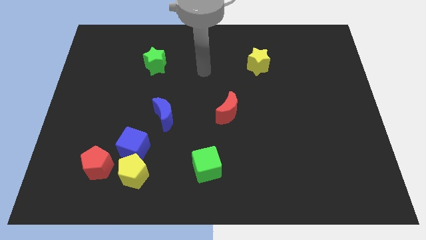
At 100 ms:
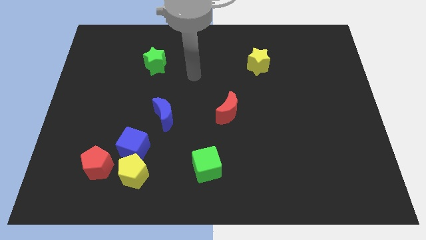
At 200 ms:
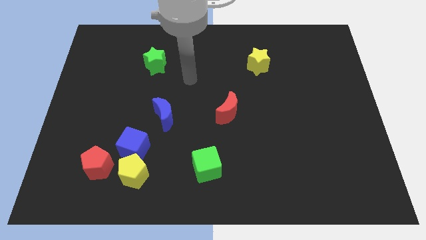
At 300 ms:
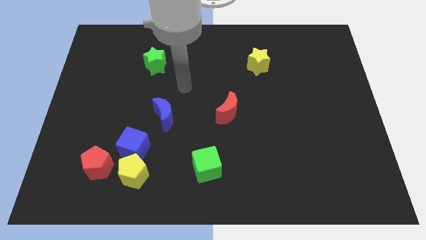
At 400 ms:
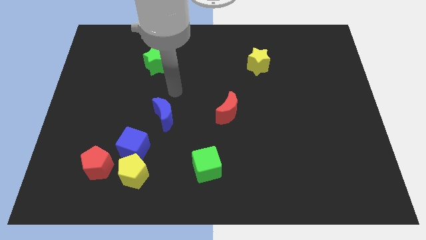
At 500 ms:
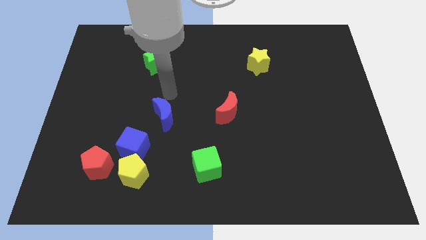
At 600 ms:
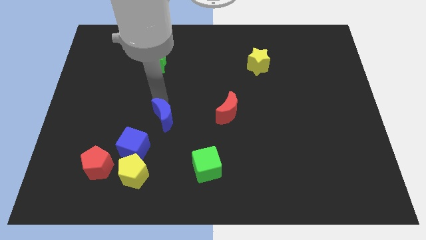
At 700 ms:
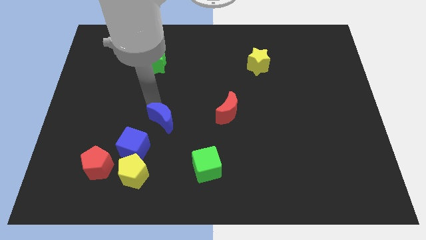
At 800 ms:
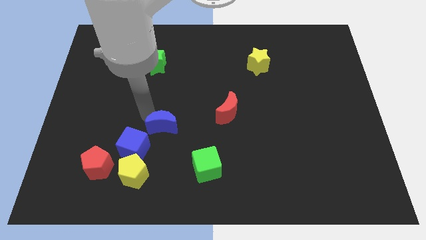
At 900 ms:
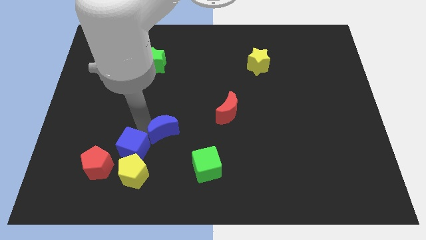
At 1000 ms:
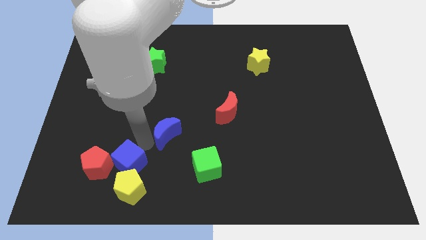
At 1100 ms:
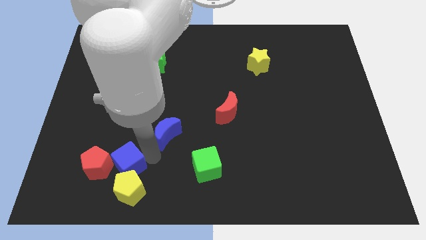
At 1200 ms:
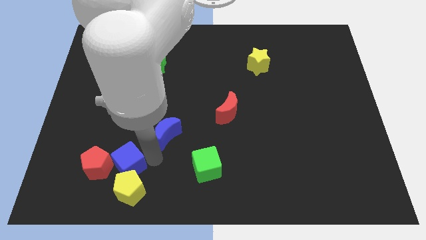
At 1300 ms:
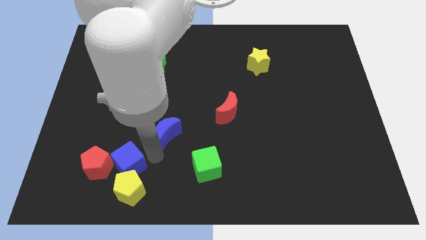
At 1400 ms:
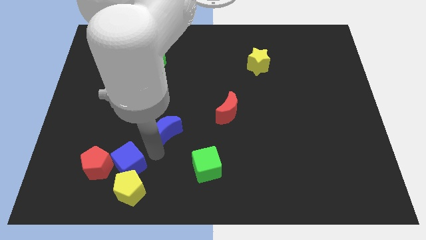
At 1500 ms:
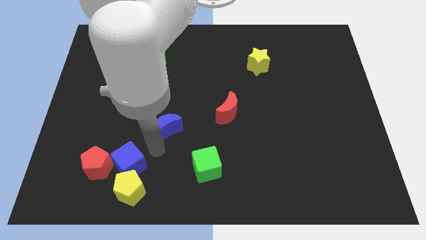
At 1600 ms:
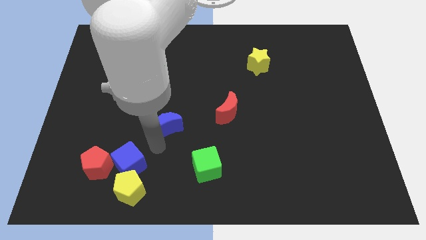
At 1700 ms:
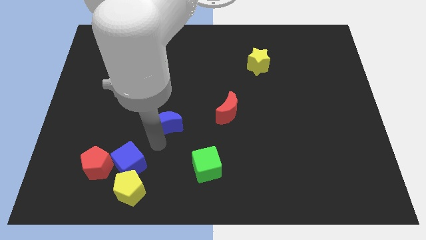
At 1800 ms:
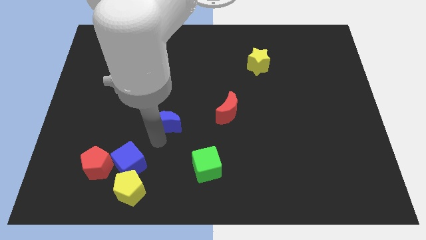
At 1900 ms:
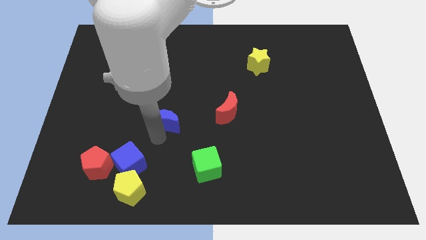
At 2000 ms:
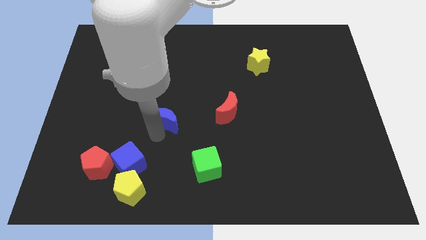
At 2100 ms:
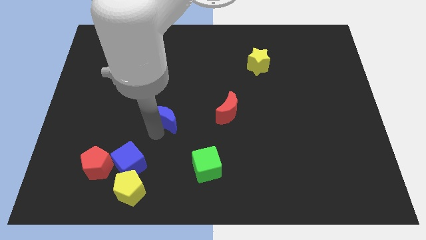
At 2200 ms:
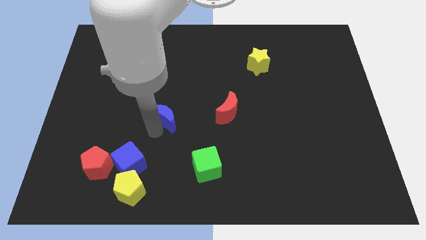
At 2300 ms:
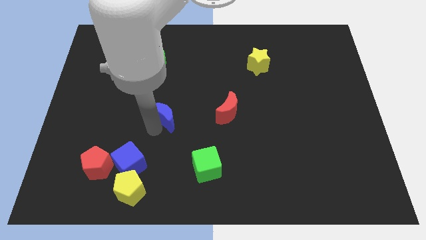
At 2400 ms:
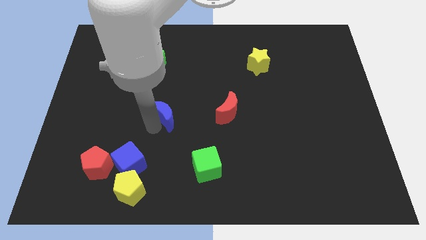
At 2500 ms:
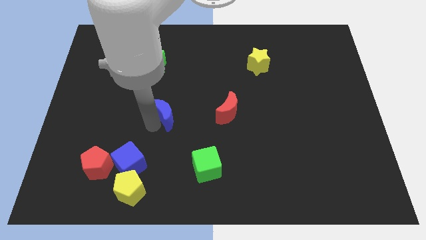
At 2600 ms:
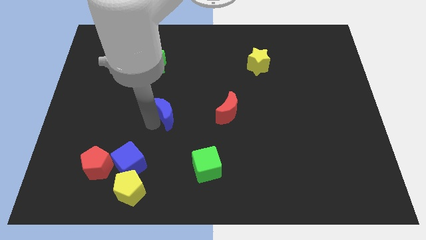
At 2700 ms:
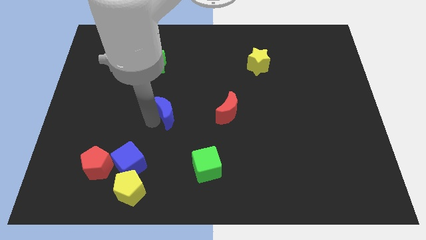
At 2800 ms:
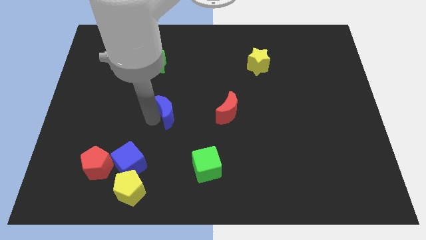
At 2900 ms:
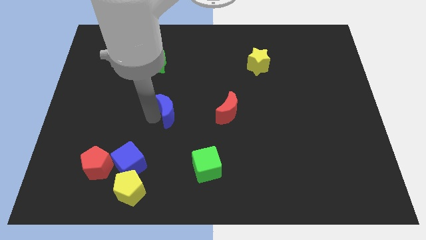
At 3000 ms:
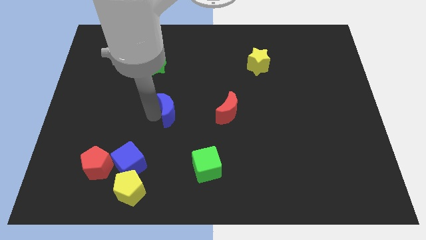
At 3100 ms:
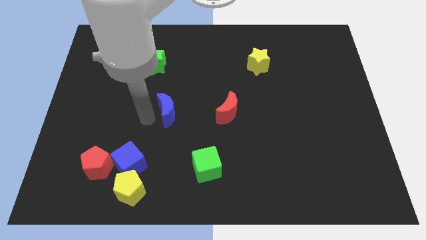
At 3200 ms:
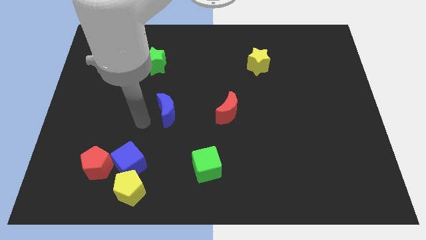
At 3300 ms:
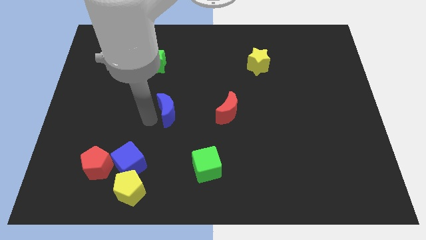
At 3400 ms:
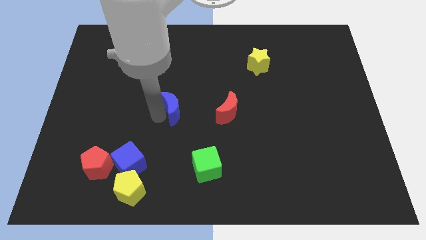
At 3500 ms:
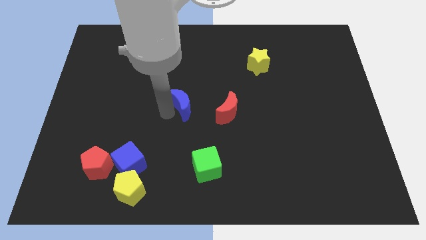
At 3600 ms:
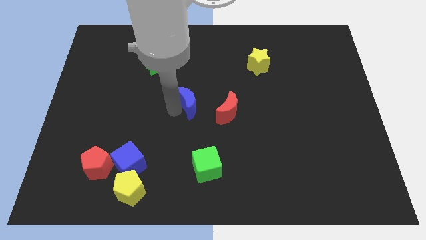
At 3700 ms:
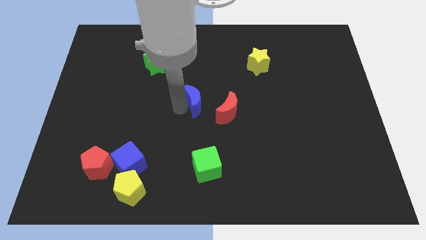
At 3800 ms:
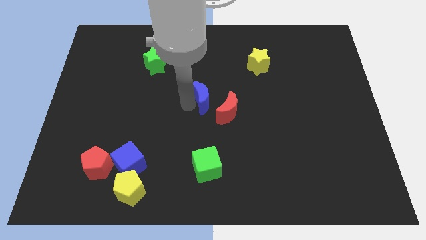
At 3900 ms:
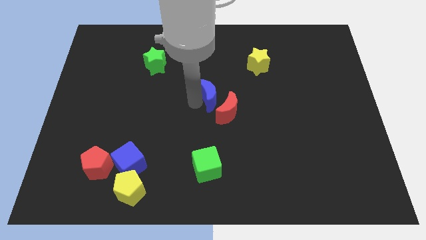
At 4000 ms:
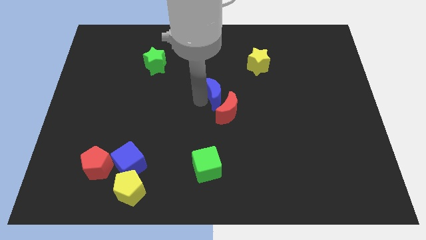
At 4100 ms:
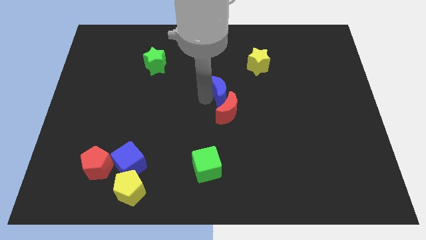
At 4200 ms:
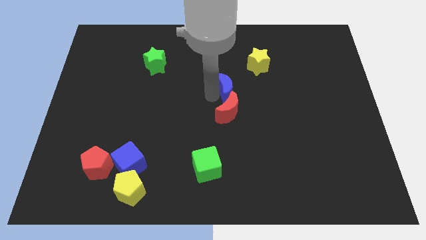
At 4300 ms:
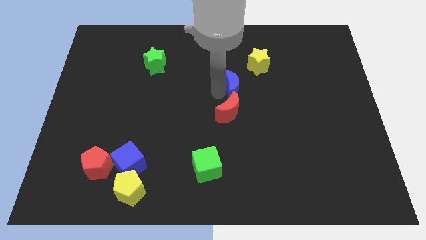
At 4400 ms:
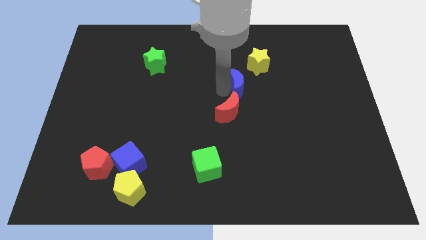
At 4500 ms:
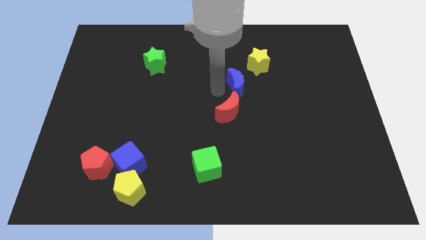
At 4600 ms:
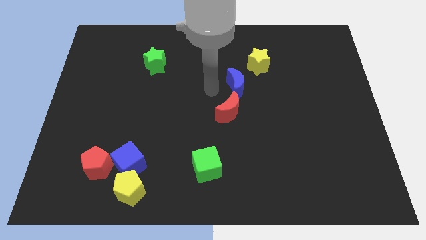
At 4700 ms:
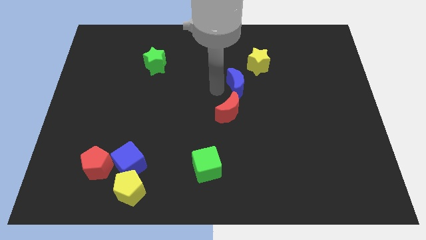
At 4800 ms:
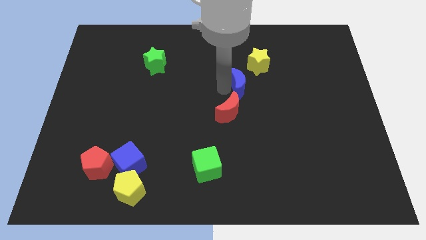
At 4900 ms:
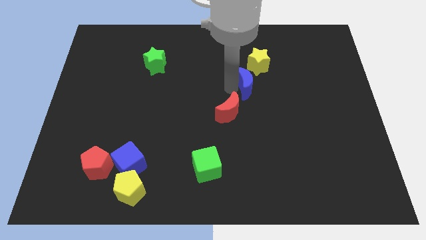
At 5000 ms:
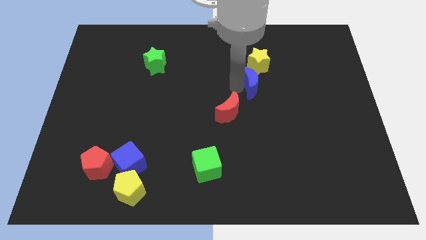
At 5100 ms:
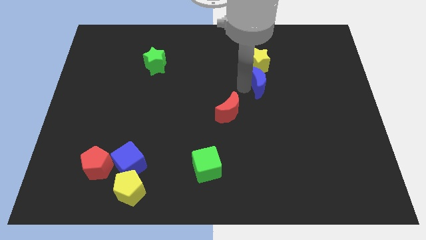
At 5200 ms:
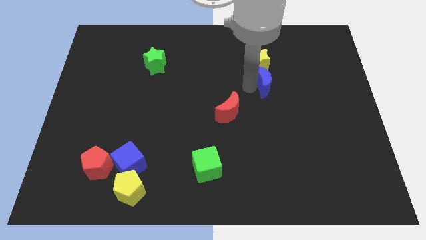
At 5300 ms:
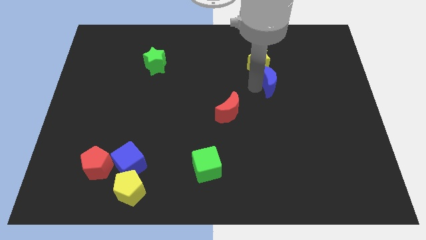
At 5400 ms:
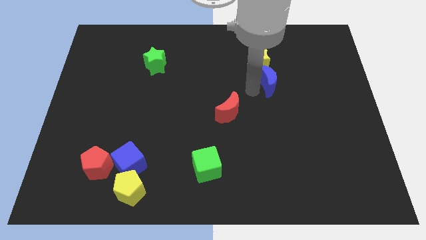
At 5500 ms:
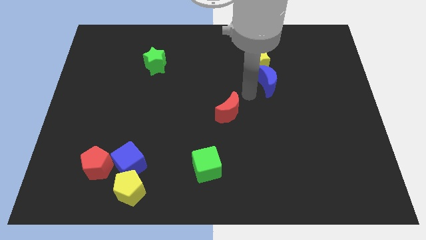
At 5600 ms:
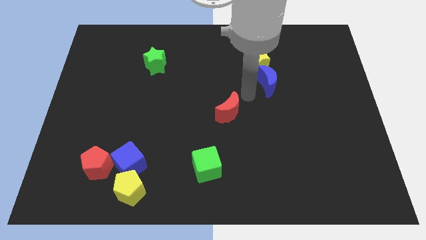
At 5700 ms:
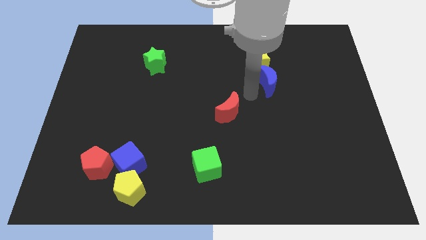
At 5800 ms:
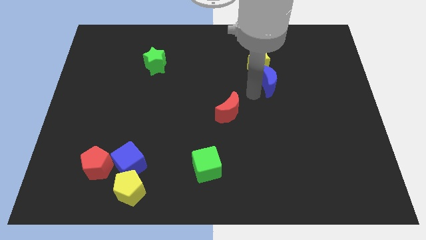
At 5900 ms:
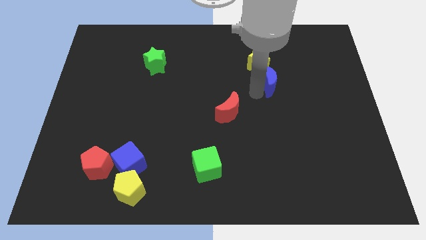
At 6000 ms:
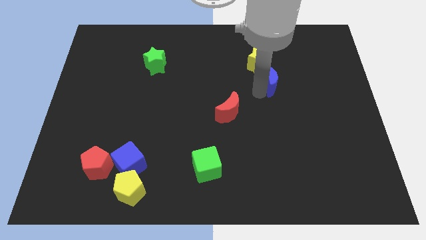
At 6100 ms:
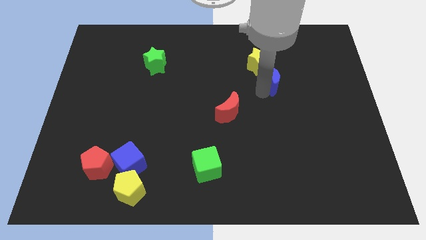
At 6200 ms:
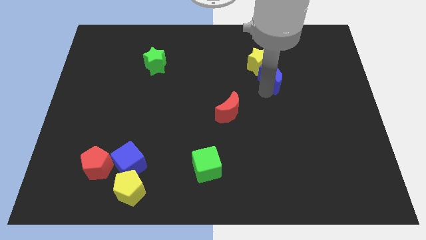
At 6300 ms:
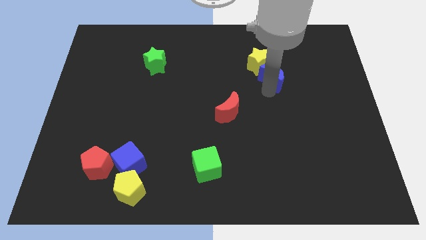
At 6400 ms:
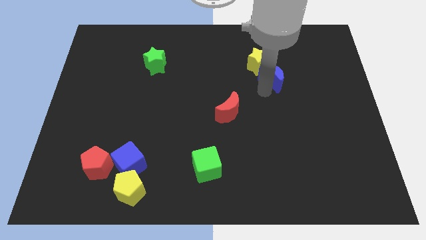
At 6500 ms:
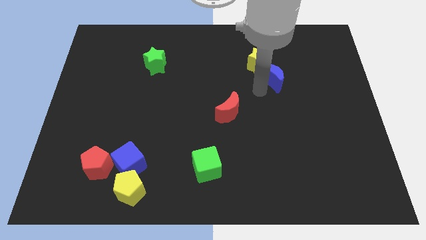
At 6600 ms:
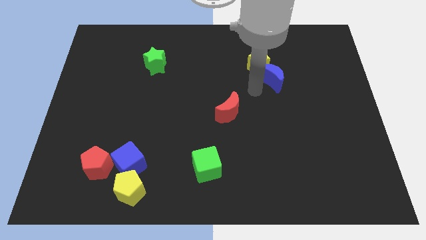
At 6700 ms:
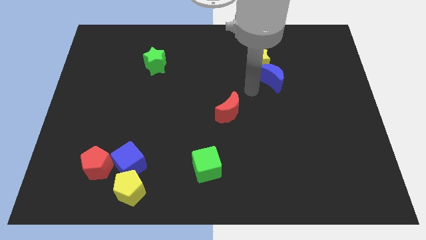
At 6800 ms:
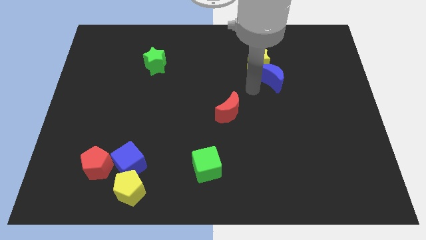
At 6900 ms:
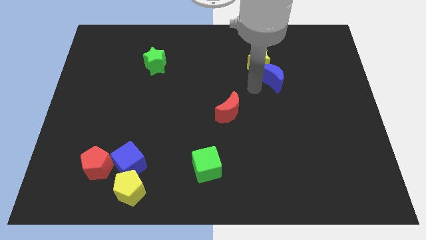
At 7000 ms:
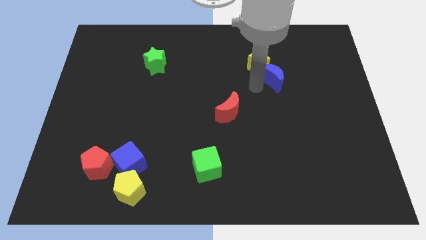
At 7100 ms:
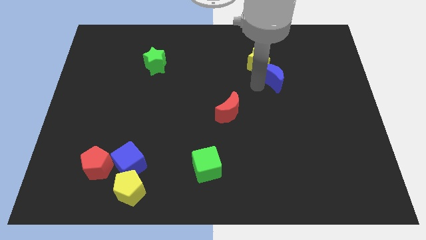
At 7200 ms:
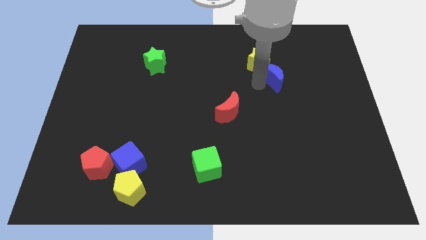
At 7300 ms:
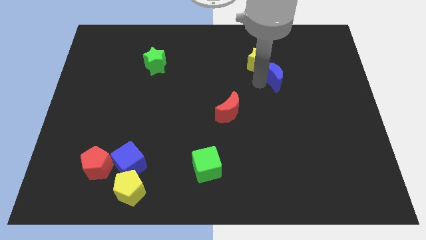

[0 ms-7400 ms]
put the blue moon just right of the yellow star
